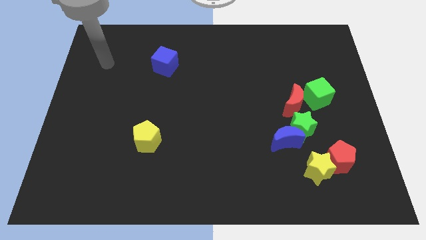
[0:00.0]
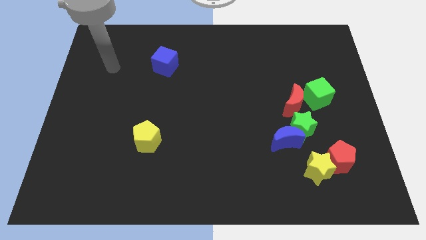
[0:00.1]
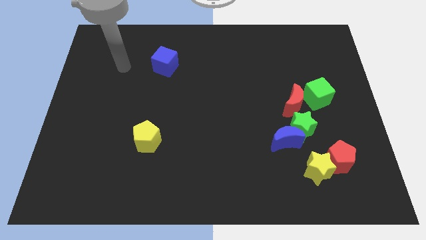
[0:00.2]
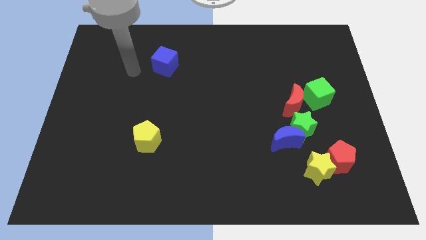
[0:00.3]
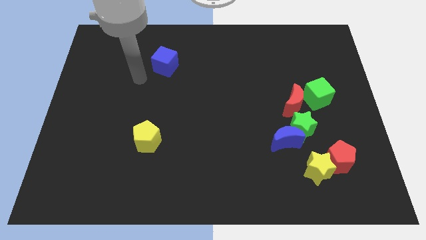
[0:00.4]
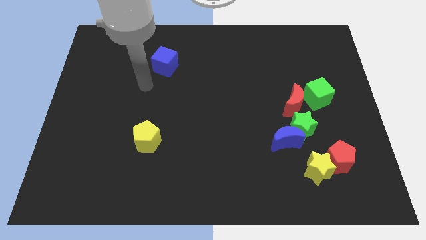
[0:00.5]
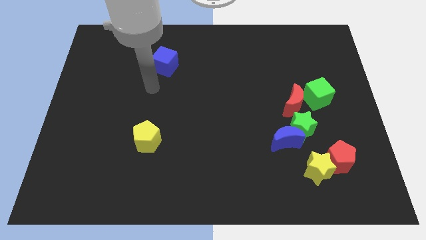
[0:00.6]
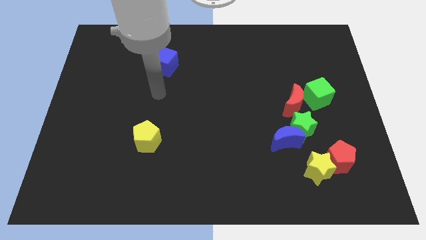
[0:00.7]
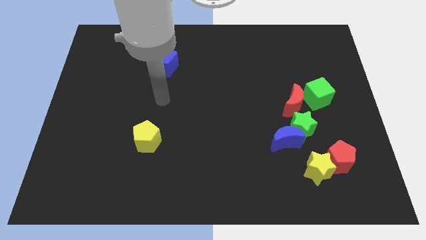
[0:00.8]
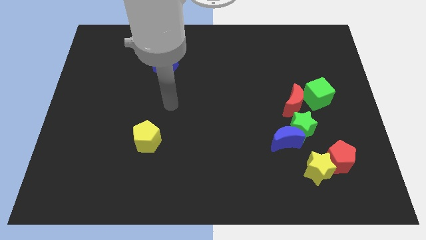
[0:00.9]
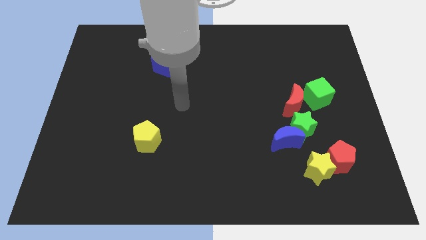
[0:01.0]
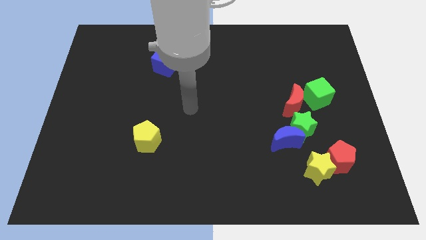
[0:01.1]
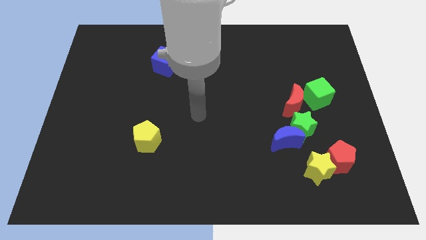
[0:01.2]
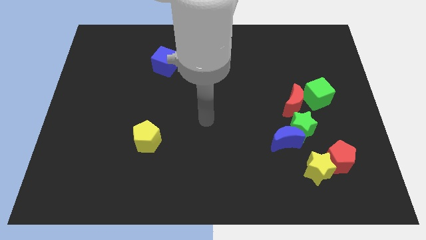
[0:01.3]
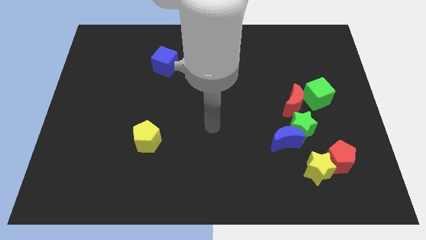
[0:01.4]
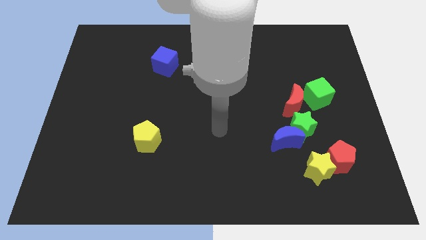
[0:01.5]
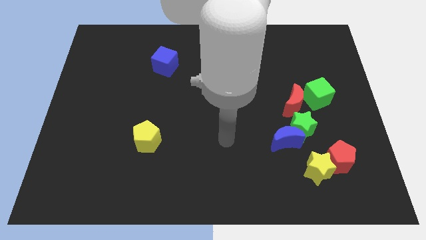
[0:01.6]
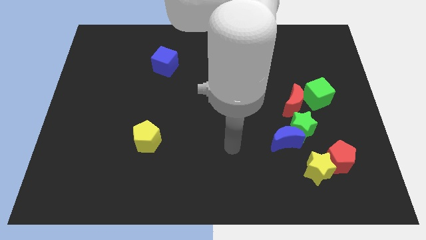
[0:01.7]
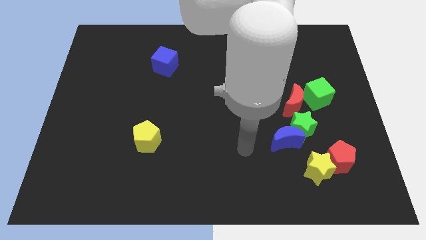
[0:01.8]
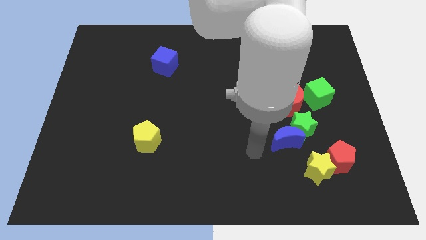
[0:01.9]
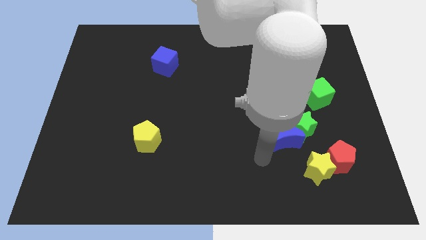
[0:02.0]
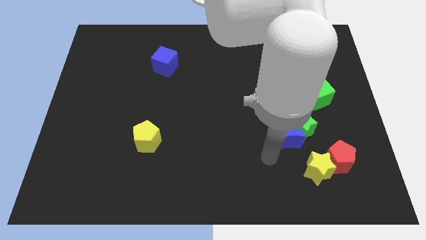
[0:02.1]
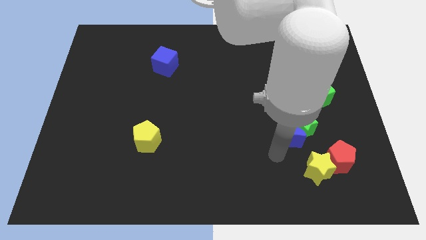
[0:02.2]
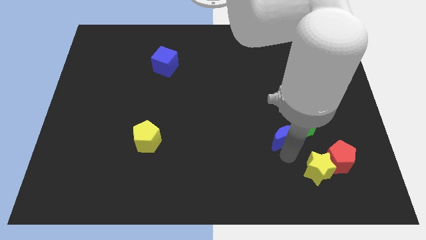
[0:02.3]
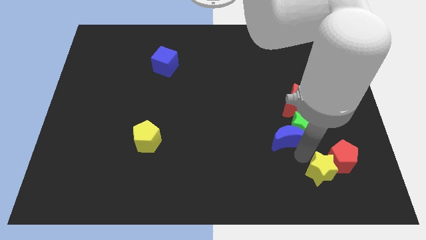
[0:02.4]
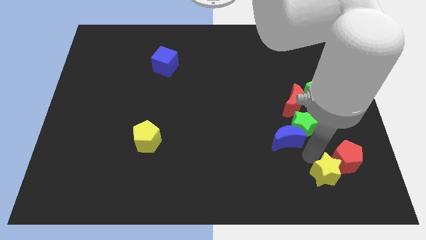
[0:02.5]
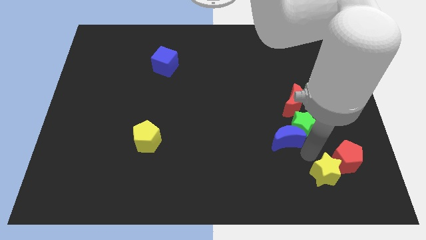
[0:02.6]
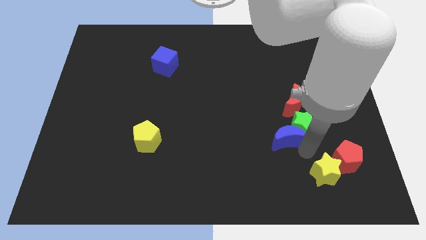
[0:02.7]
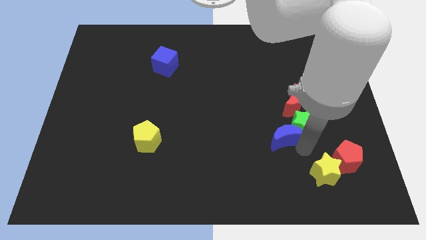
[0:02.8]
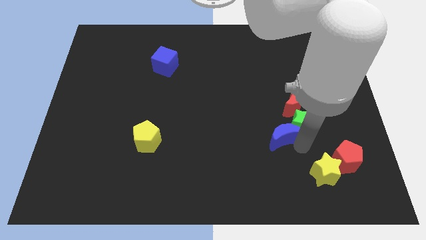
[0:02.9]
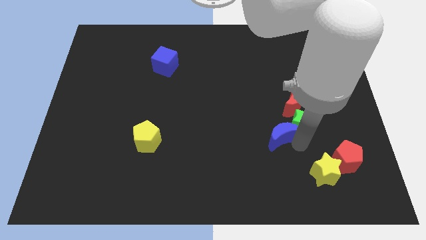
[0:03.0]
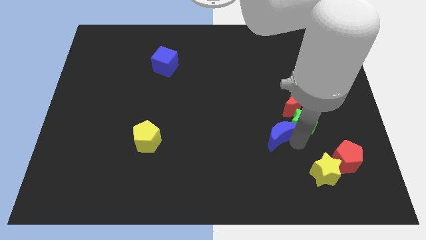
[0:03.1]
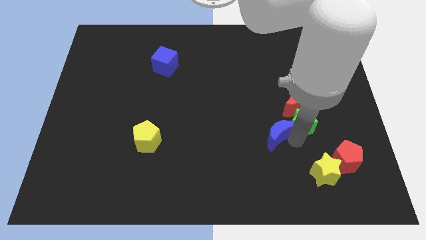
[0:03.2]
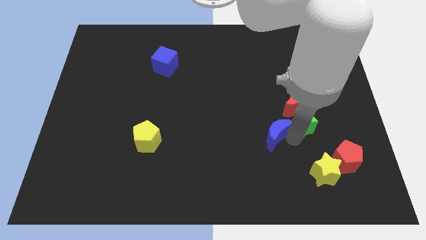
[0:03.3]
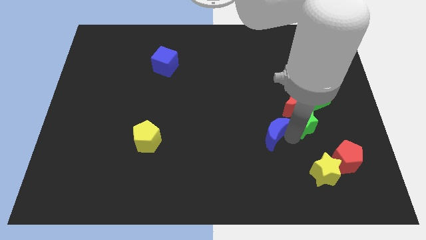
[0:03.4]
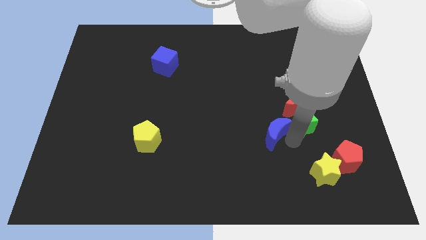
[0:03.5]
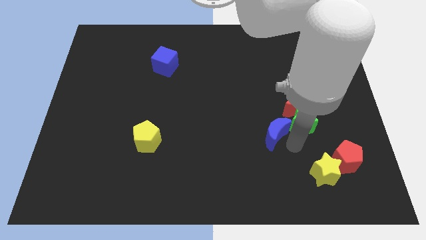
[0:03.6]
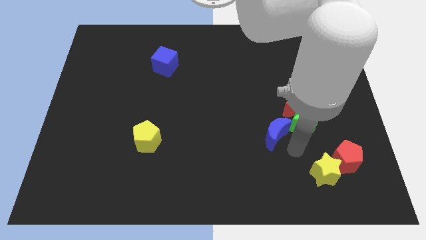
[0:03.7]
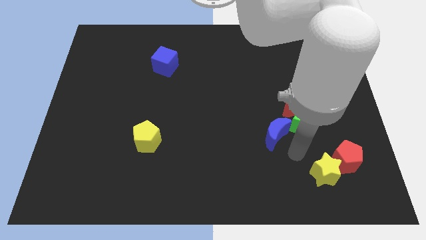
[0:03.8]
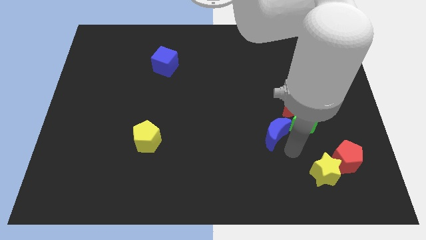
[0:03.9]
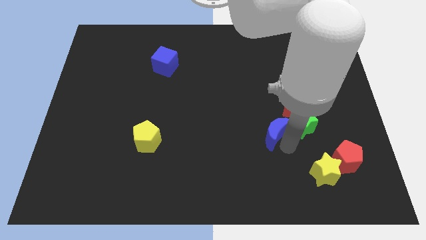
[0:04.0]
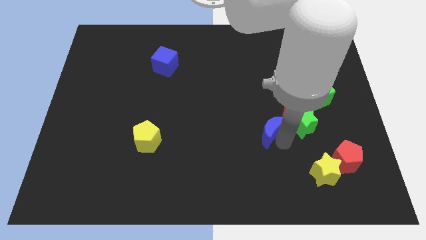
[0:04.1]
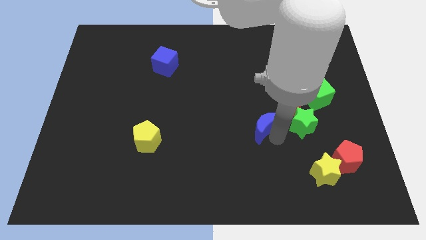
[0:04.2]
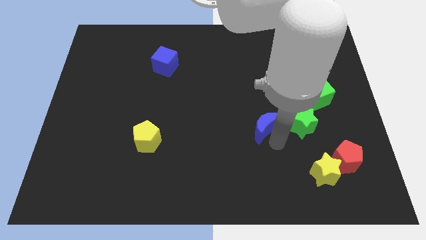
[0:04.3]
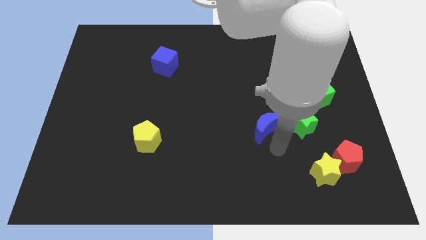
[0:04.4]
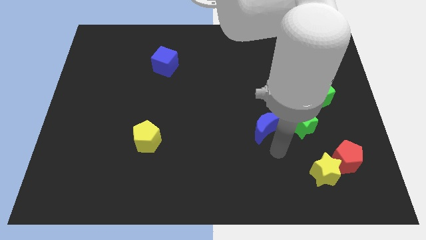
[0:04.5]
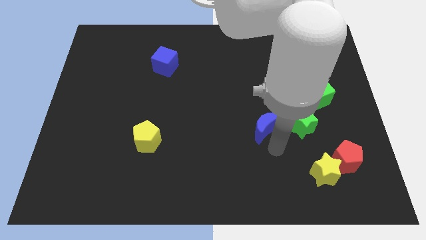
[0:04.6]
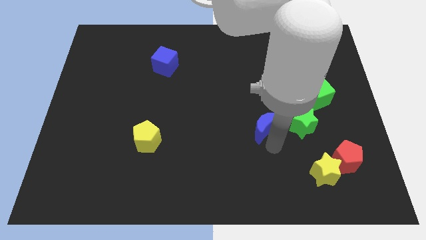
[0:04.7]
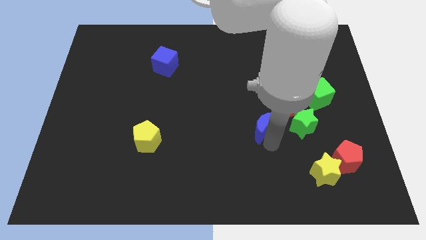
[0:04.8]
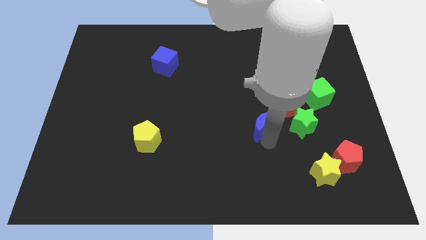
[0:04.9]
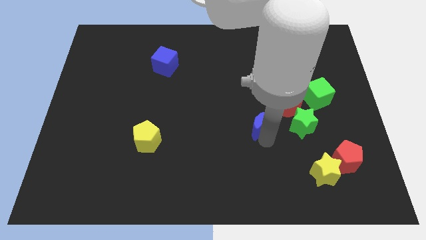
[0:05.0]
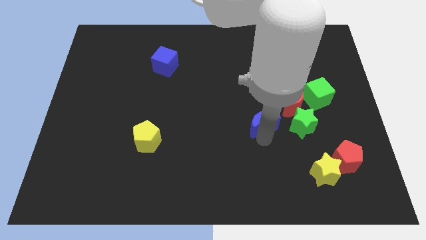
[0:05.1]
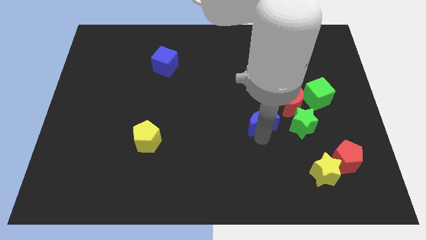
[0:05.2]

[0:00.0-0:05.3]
slide the blue moon slightly up and to the left

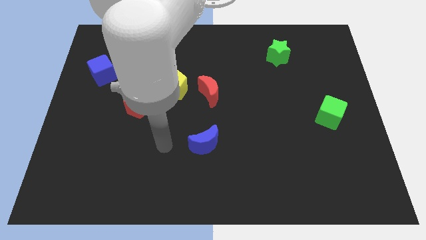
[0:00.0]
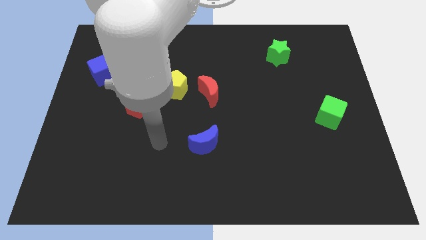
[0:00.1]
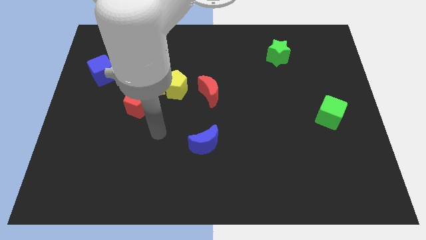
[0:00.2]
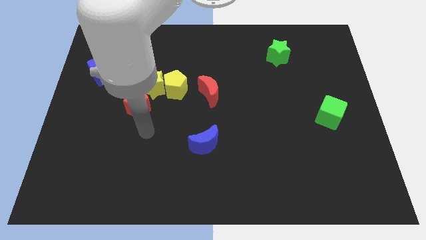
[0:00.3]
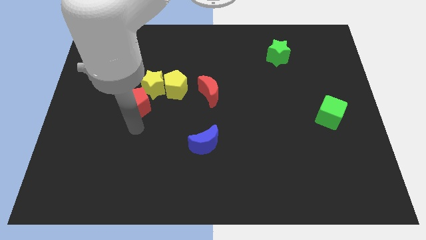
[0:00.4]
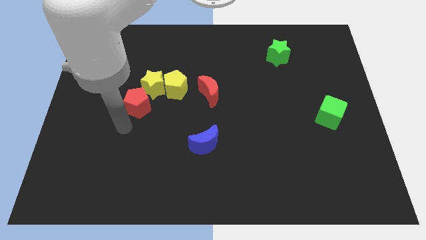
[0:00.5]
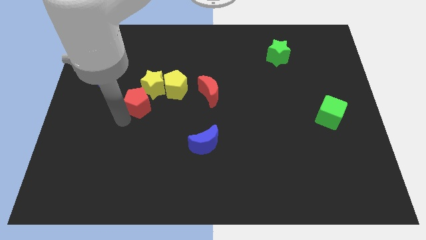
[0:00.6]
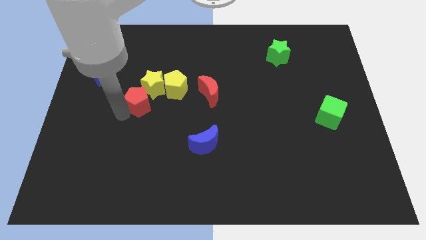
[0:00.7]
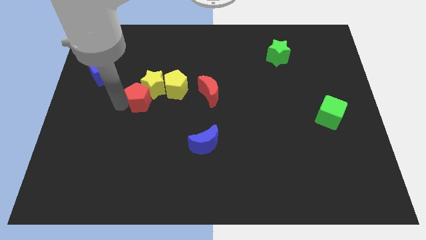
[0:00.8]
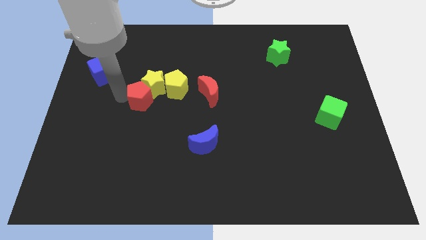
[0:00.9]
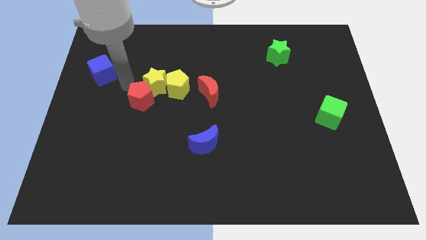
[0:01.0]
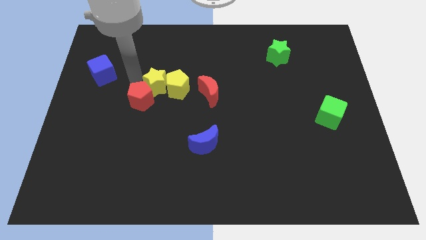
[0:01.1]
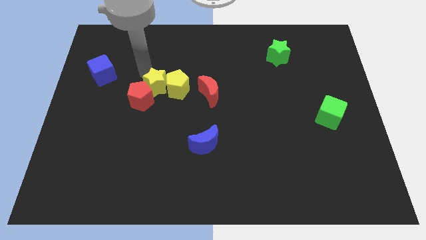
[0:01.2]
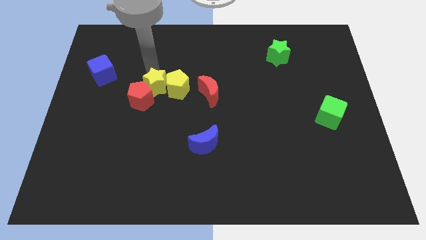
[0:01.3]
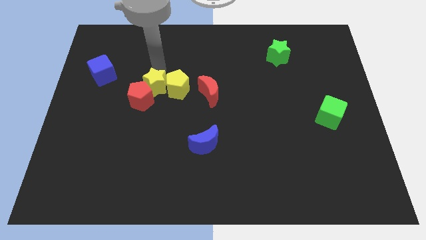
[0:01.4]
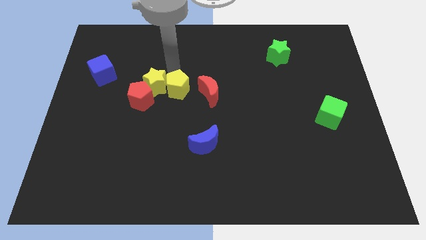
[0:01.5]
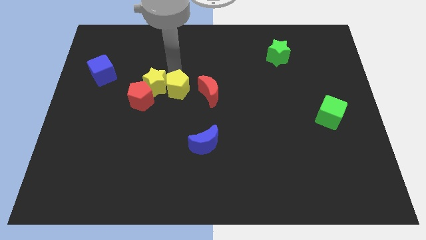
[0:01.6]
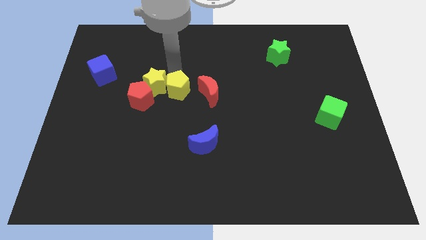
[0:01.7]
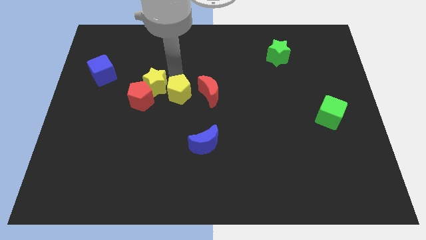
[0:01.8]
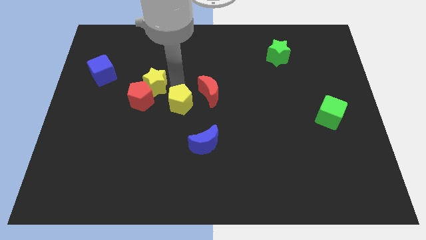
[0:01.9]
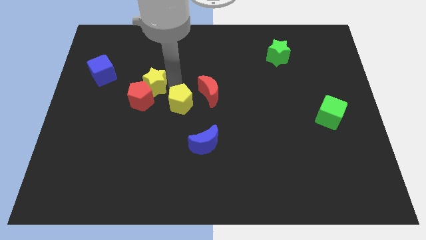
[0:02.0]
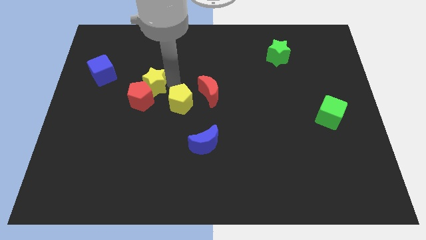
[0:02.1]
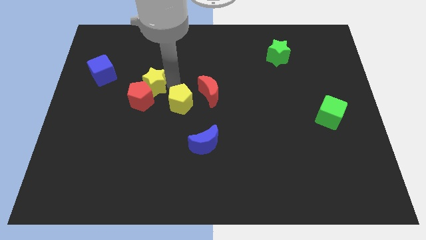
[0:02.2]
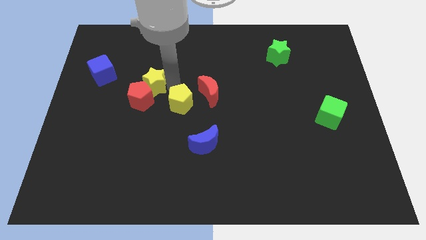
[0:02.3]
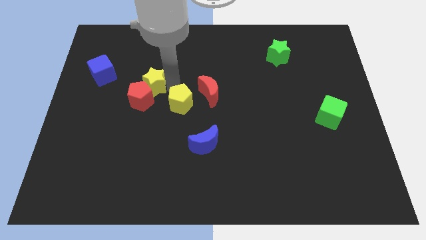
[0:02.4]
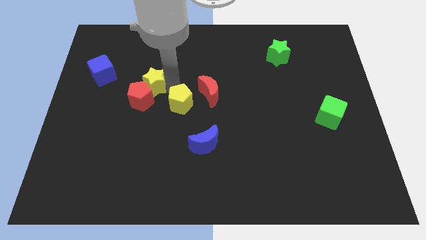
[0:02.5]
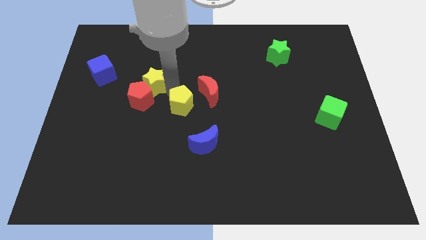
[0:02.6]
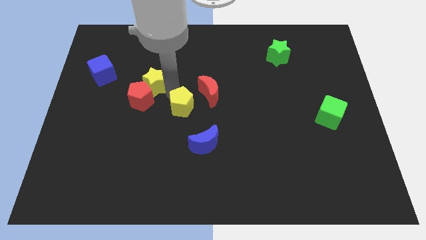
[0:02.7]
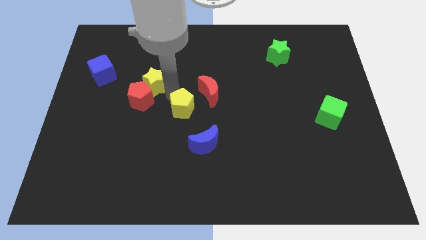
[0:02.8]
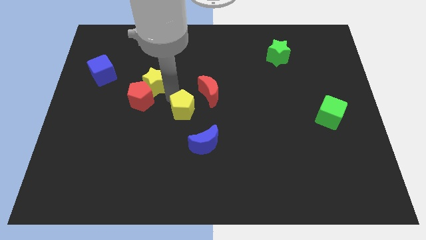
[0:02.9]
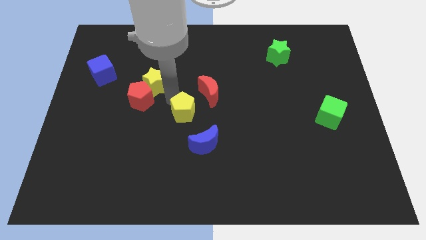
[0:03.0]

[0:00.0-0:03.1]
slightly push the yellow pentagon down
